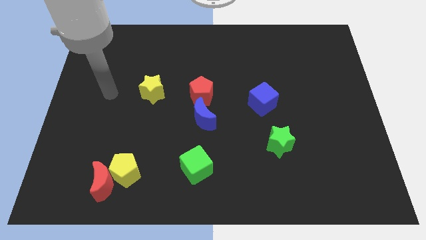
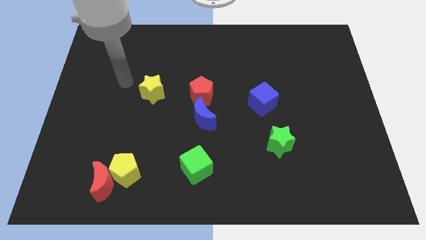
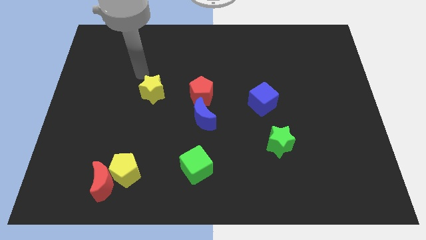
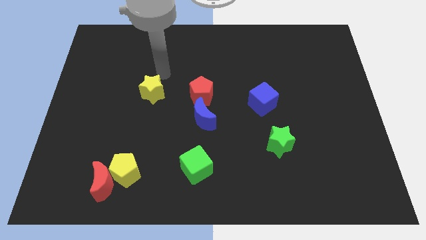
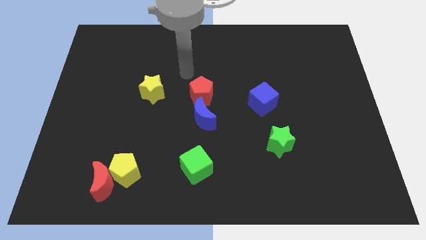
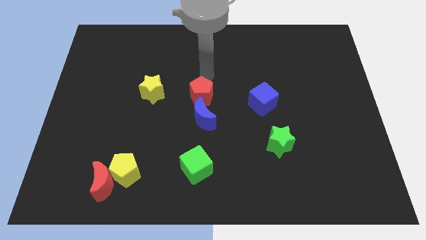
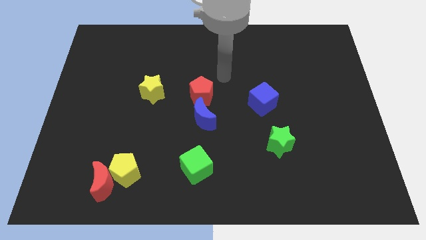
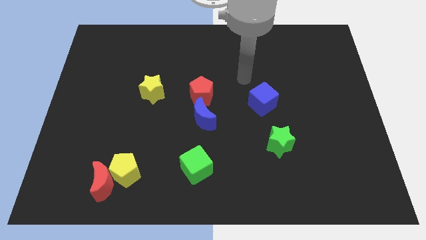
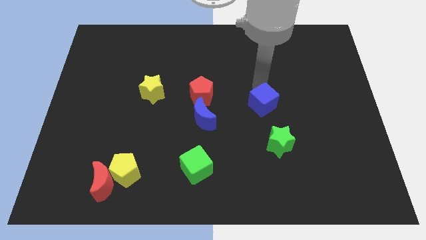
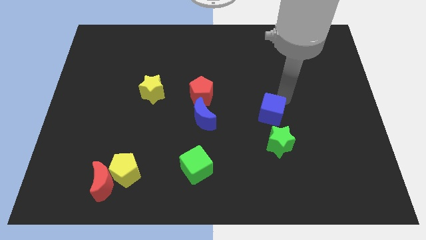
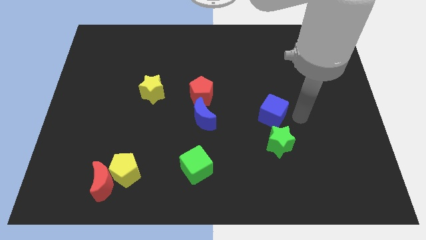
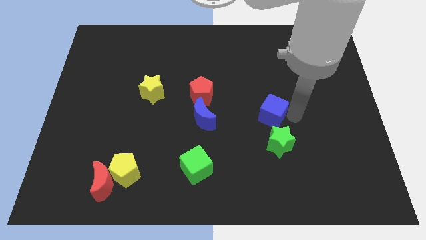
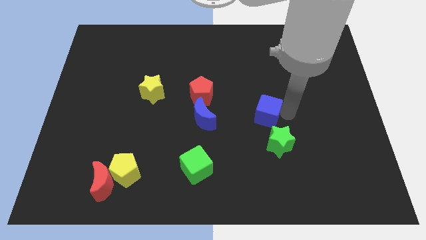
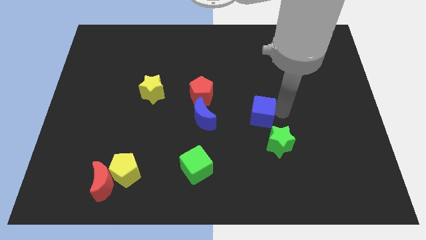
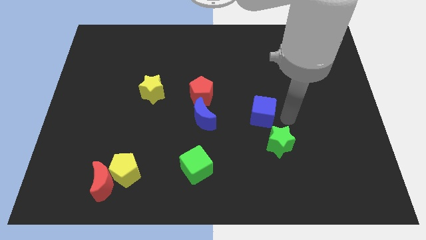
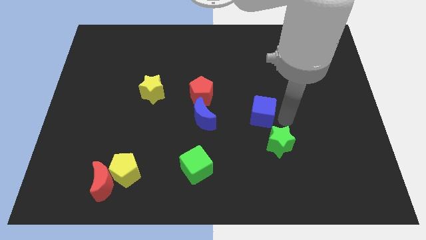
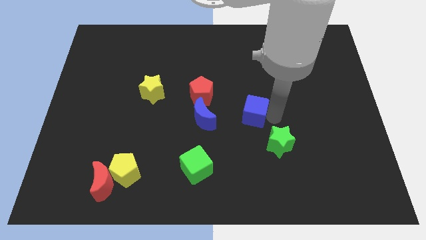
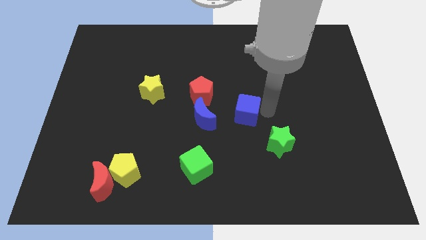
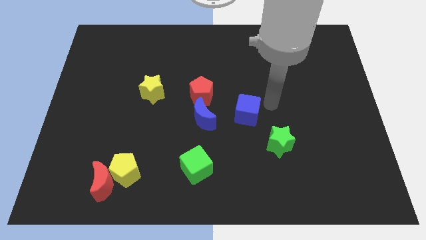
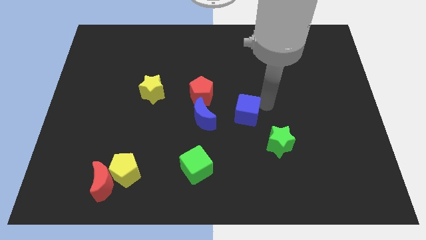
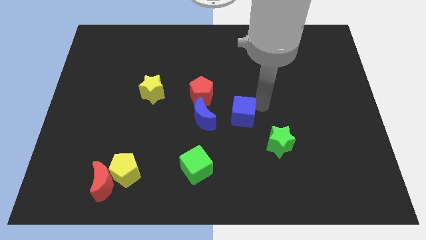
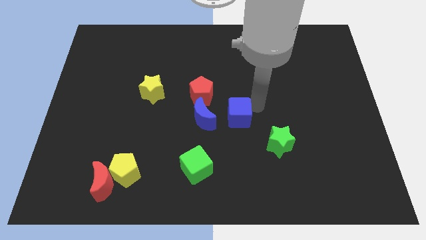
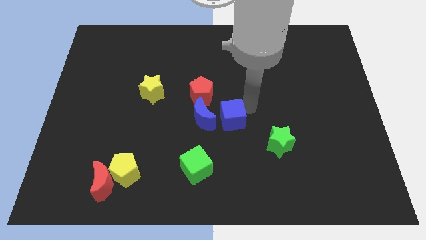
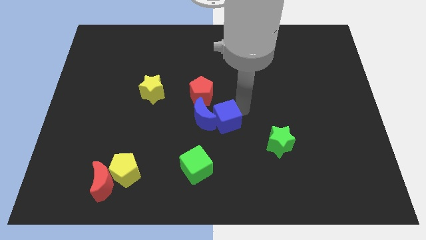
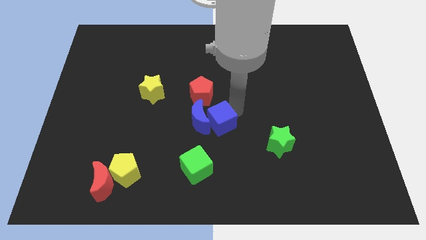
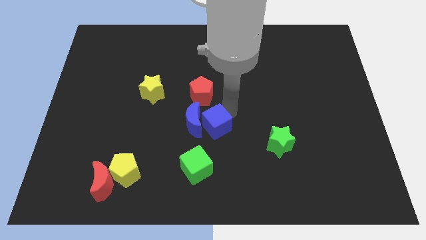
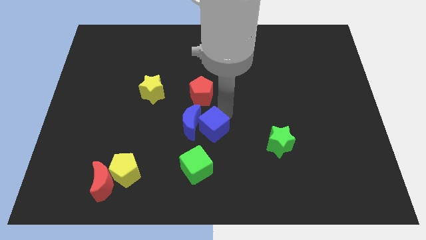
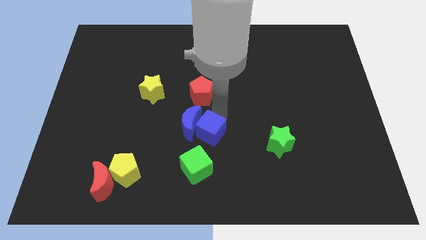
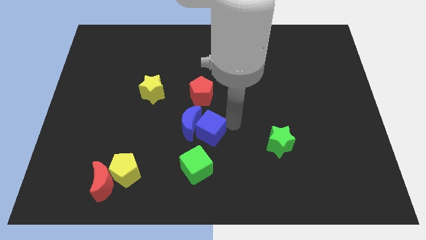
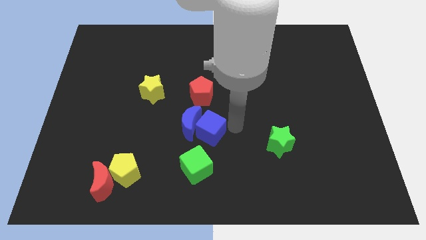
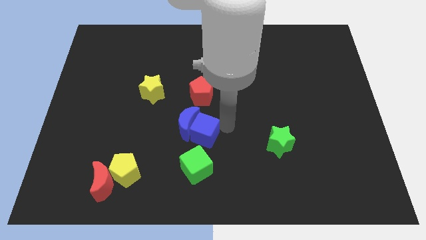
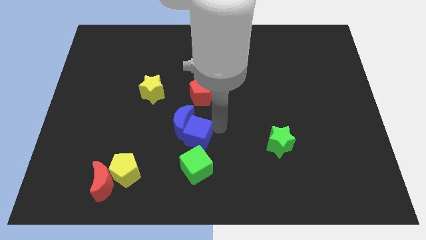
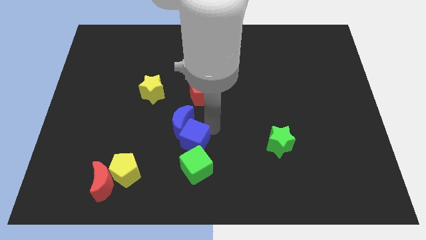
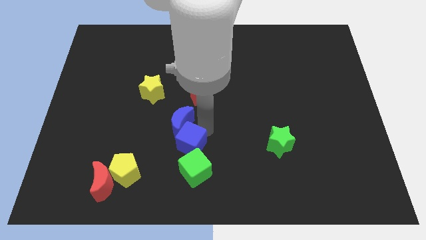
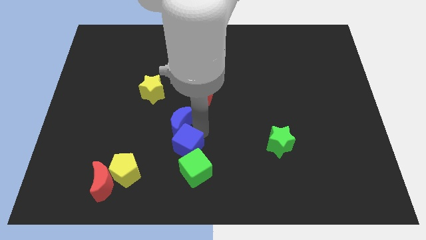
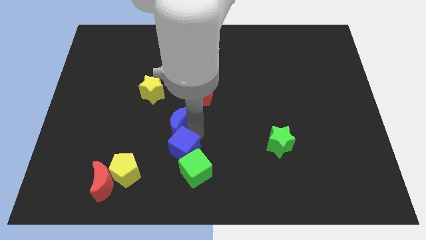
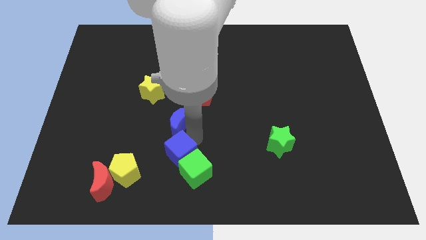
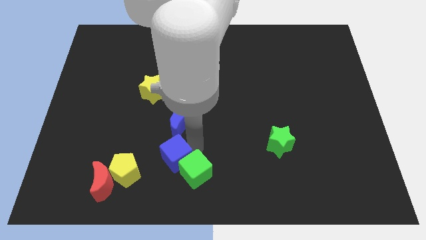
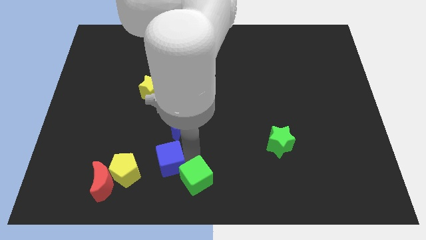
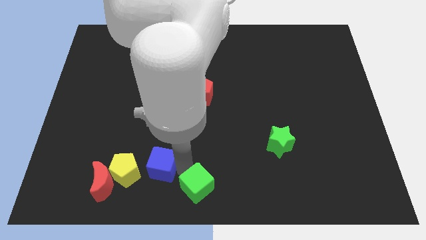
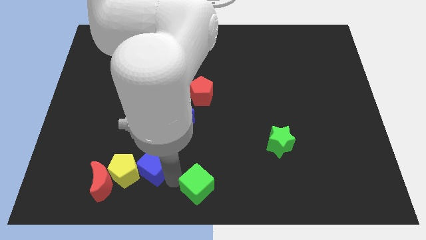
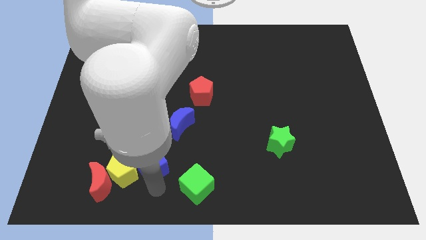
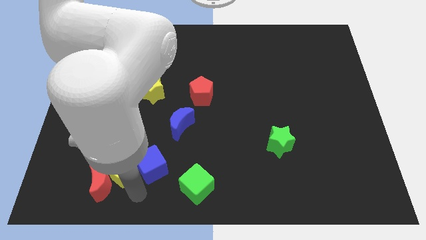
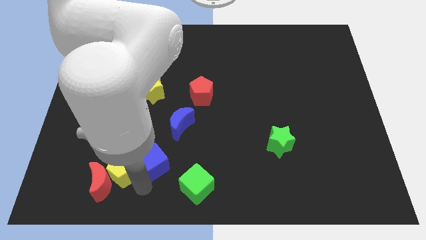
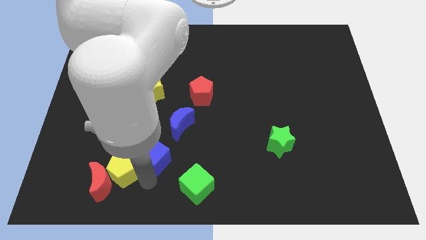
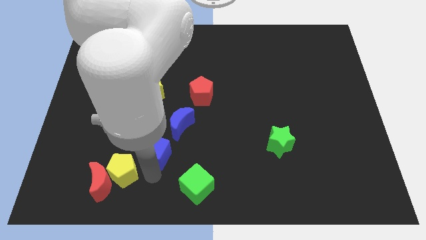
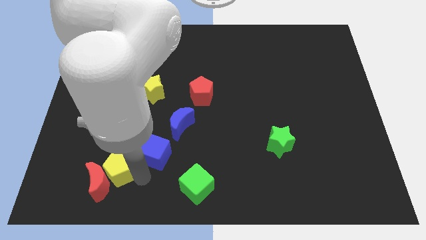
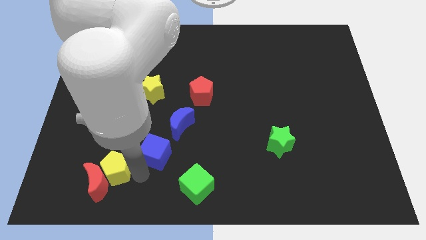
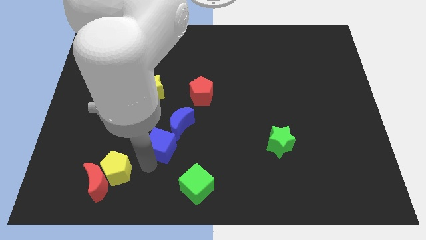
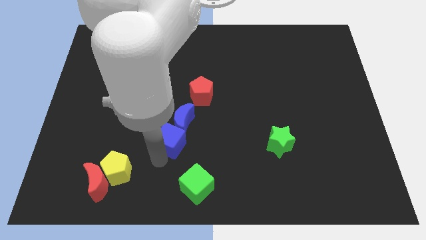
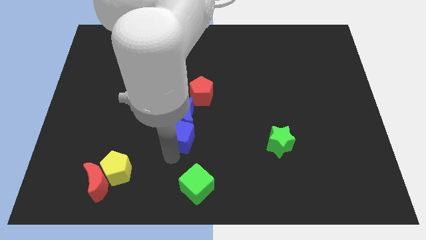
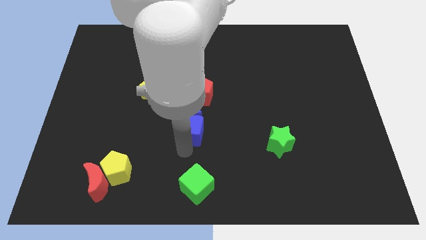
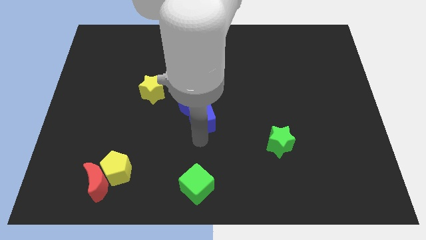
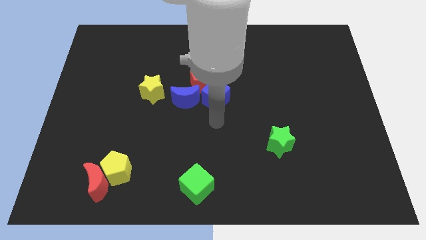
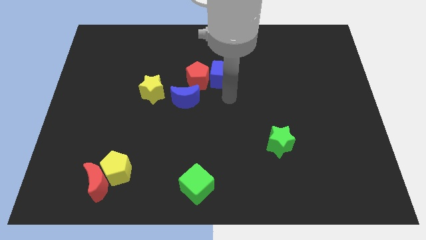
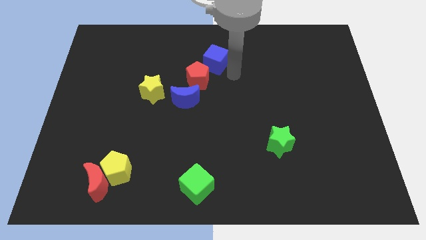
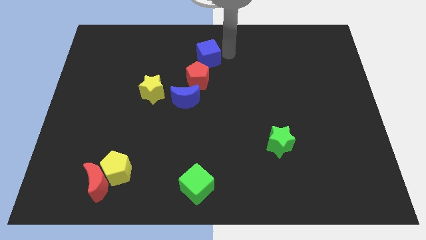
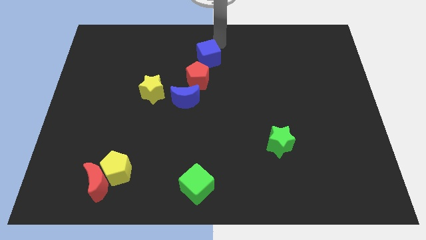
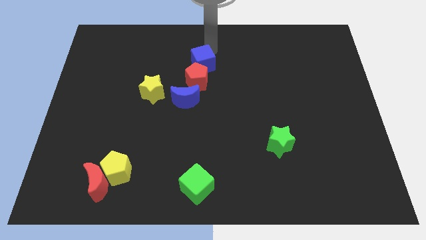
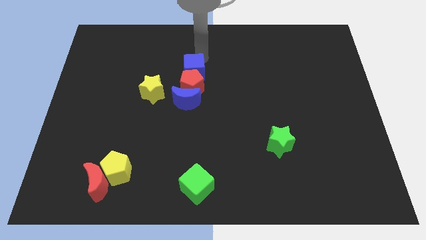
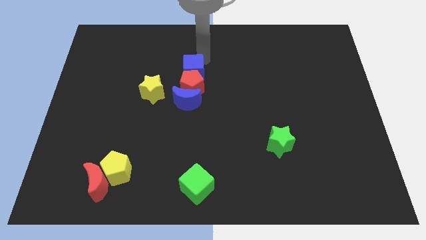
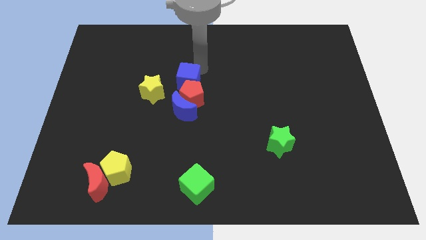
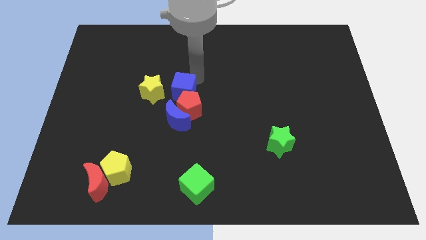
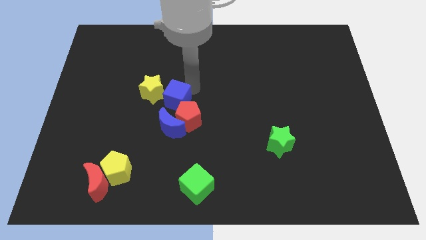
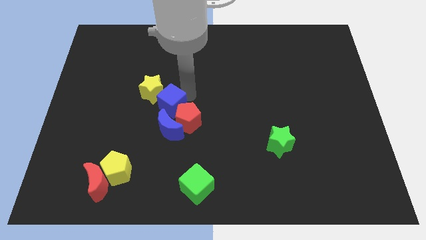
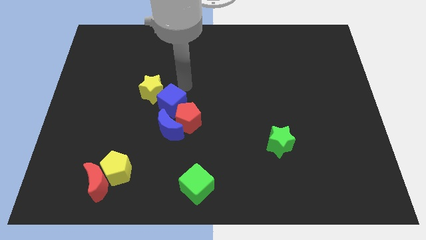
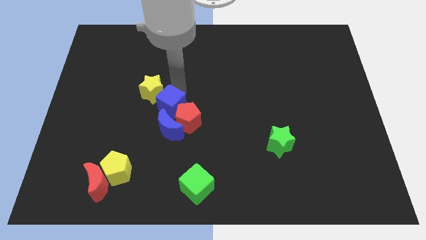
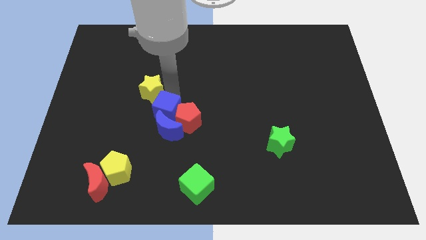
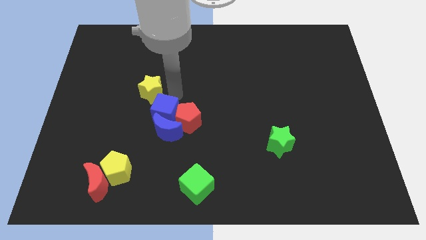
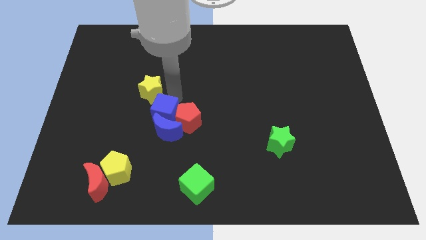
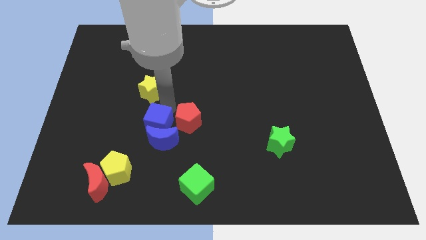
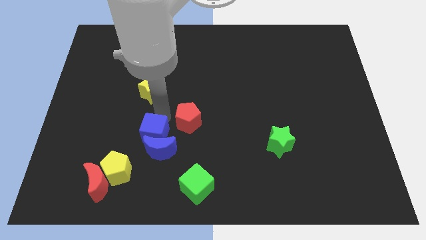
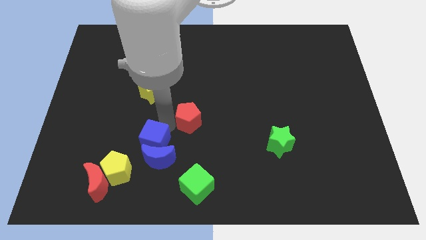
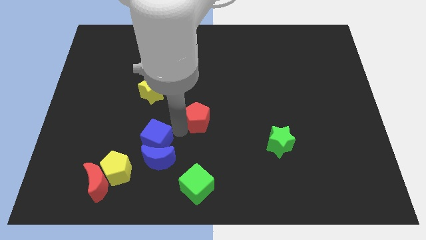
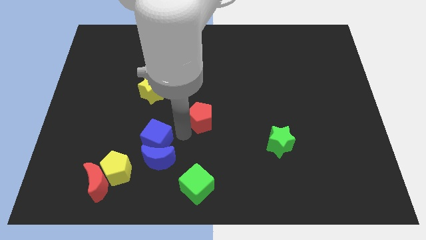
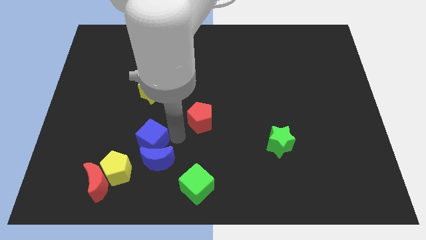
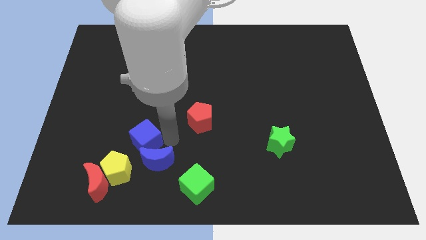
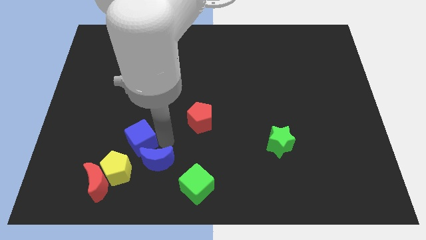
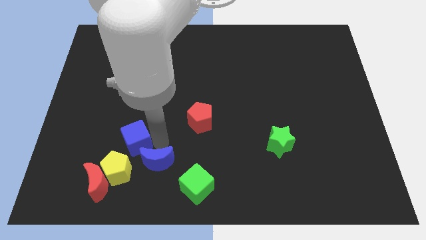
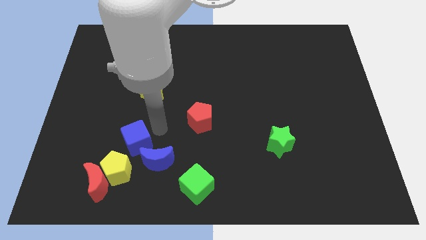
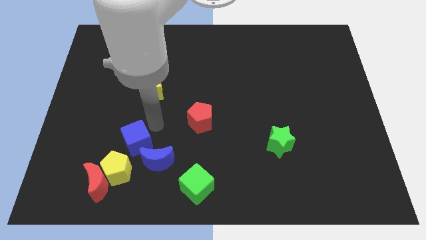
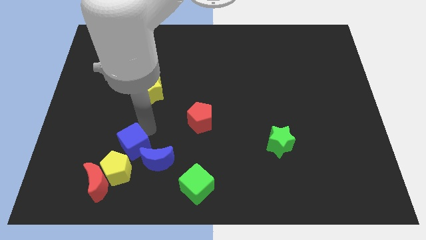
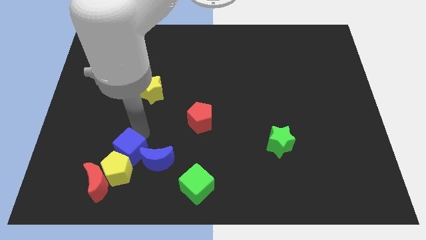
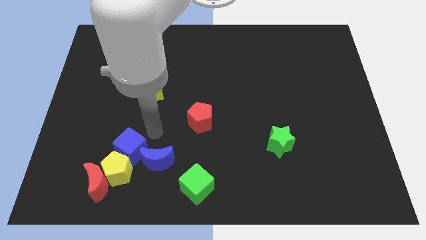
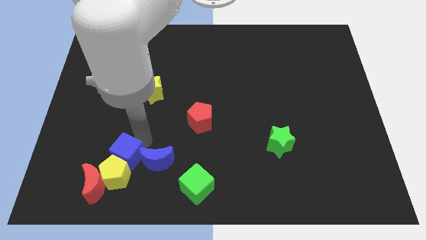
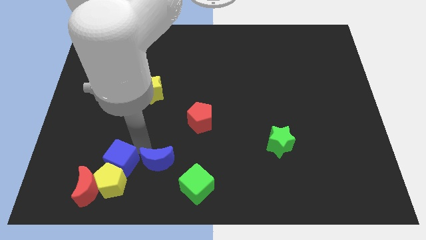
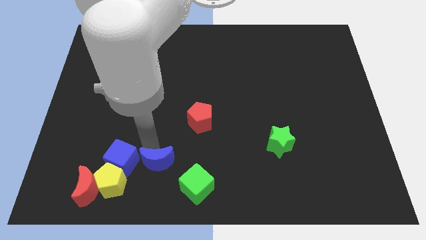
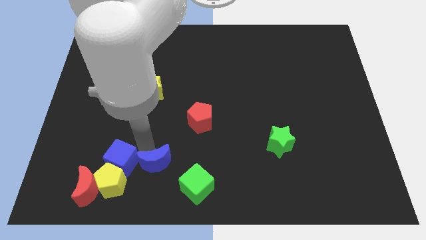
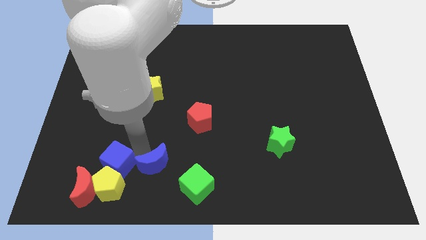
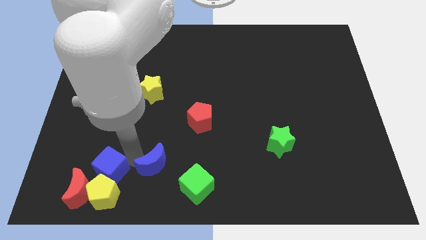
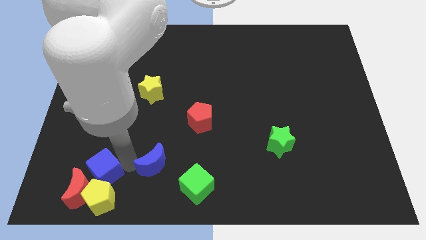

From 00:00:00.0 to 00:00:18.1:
push the blue cube towards the red moon
